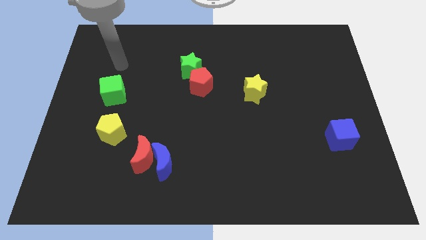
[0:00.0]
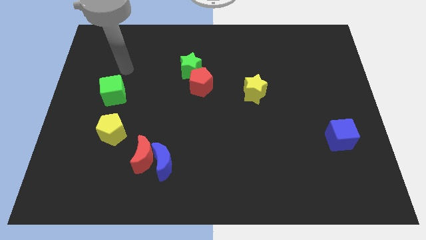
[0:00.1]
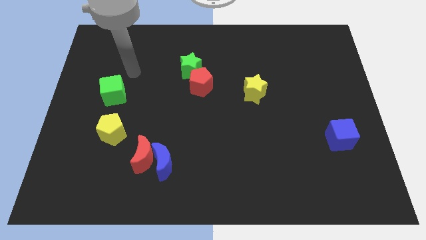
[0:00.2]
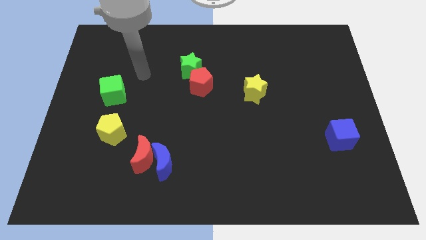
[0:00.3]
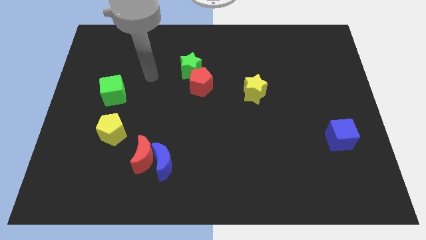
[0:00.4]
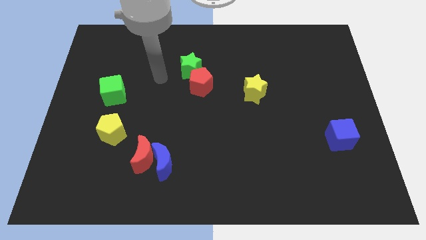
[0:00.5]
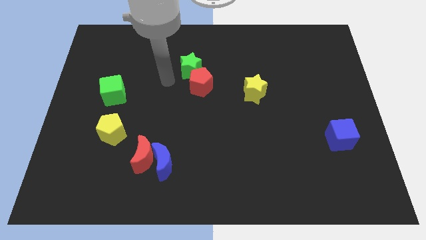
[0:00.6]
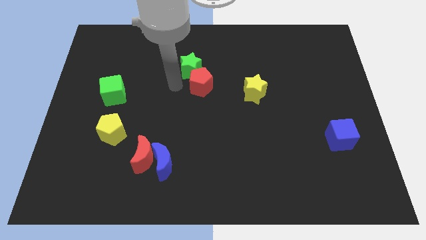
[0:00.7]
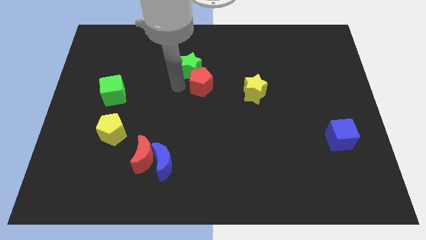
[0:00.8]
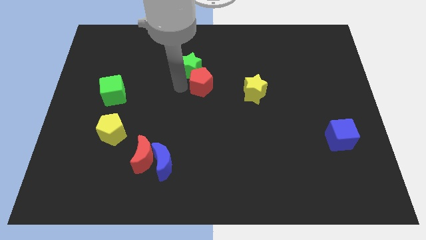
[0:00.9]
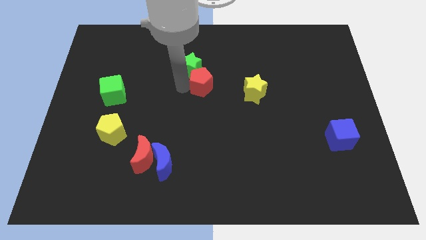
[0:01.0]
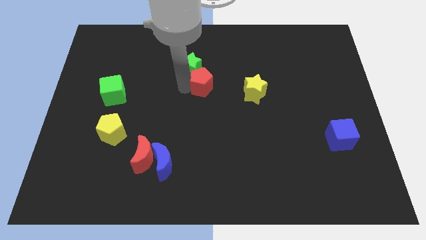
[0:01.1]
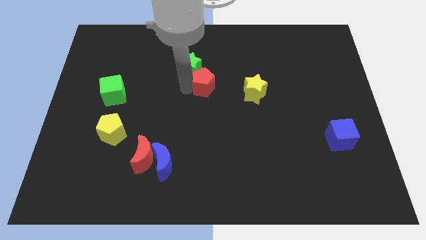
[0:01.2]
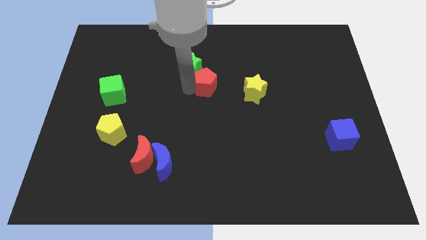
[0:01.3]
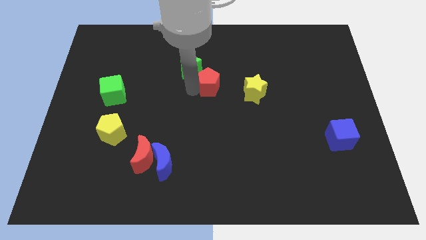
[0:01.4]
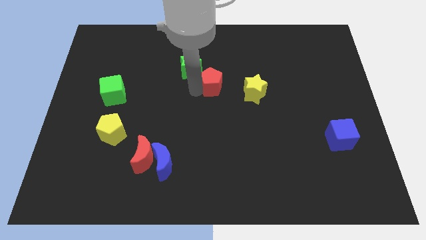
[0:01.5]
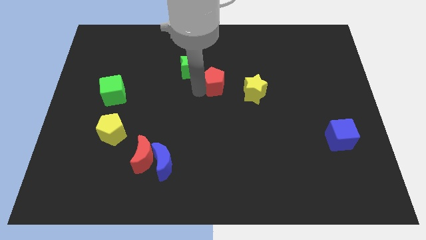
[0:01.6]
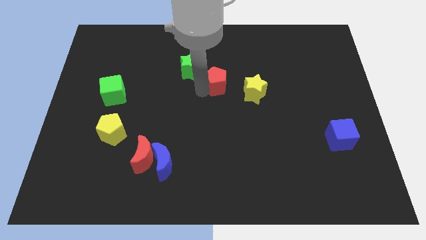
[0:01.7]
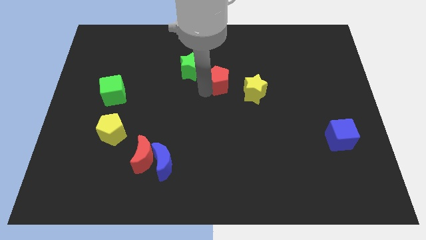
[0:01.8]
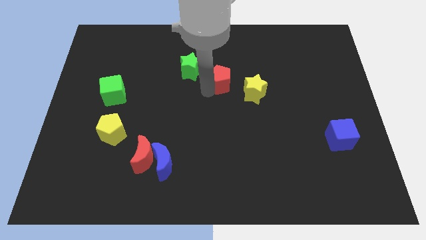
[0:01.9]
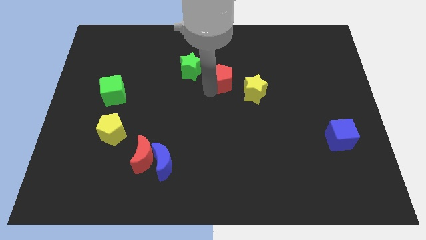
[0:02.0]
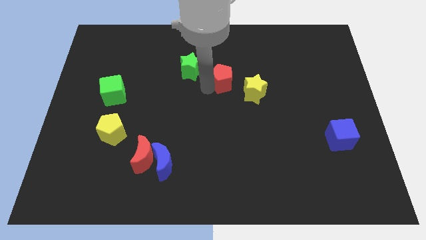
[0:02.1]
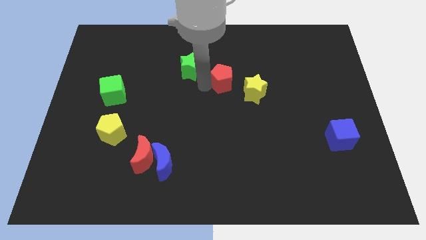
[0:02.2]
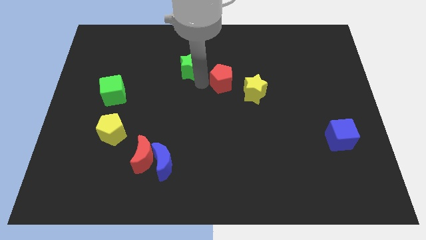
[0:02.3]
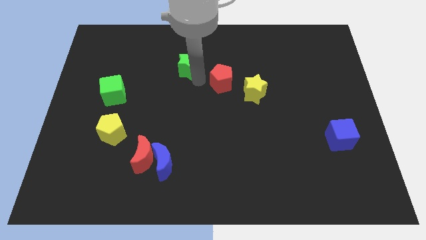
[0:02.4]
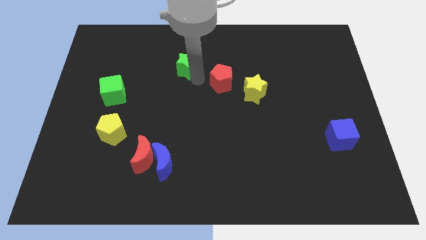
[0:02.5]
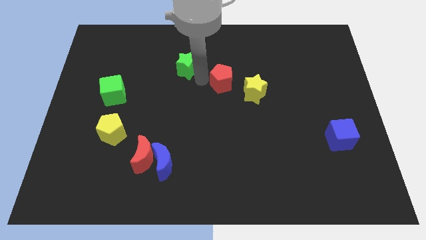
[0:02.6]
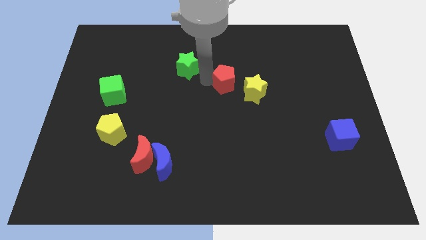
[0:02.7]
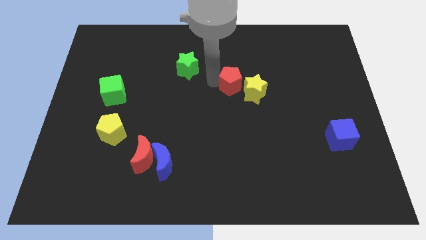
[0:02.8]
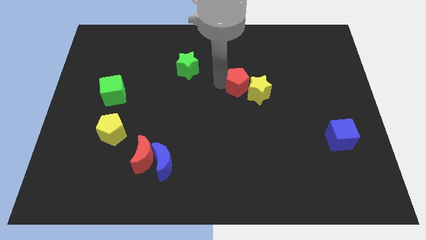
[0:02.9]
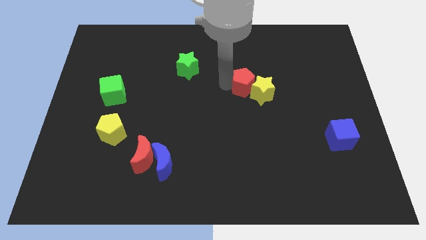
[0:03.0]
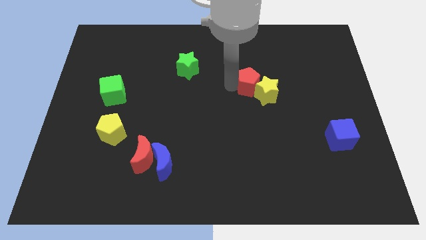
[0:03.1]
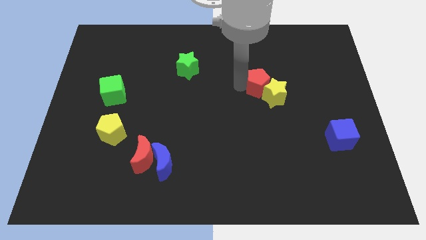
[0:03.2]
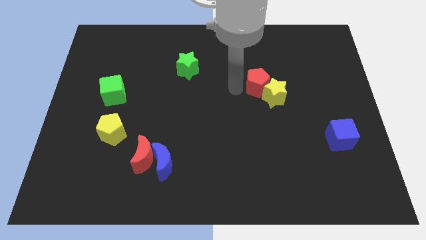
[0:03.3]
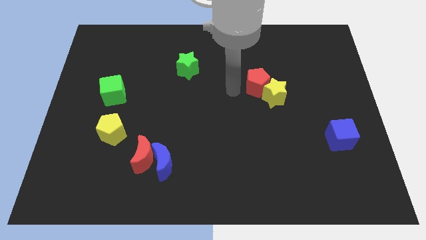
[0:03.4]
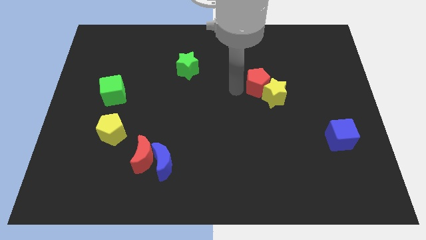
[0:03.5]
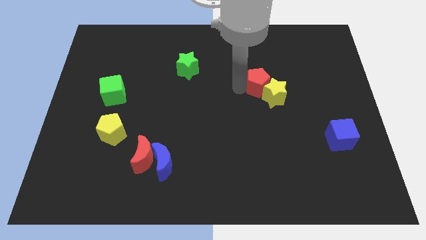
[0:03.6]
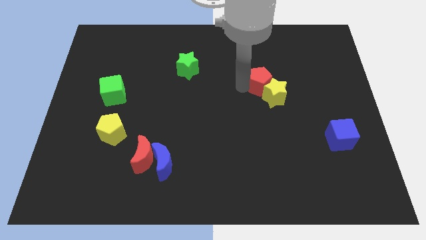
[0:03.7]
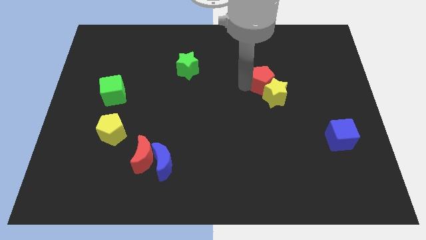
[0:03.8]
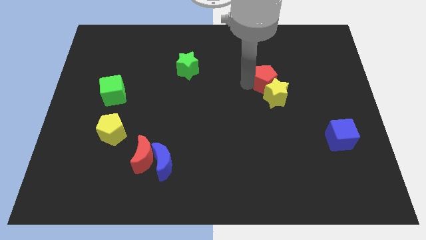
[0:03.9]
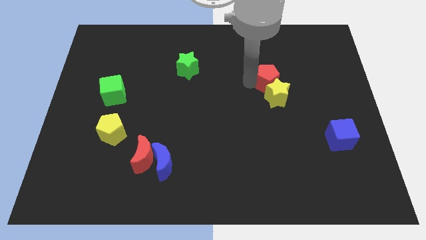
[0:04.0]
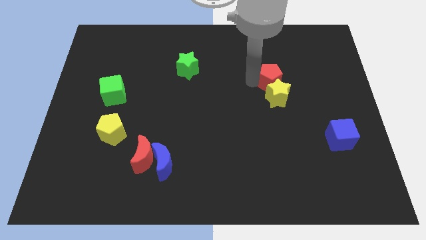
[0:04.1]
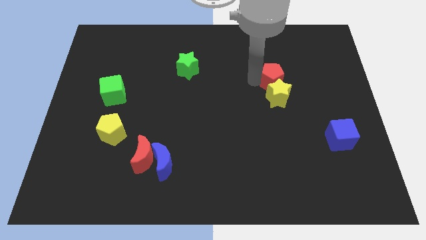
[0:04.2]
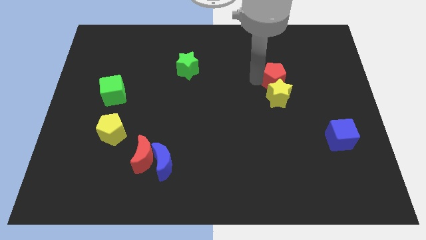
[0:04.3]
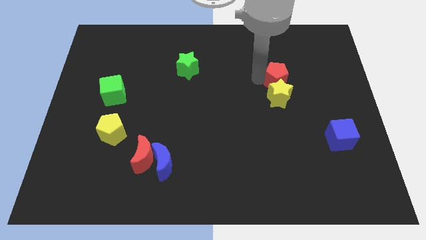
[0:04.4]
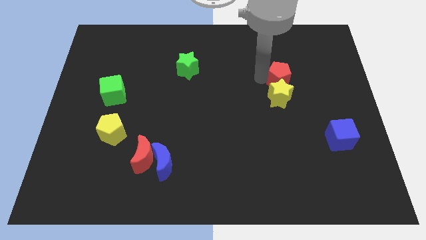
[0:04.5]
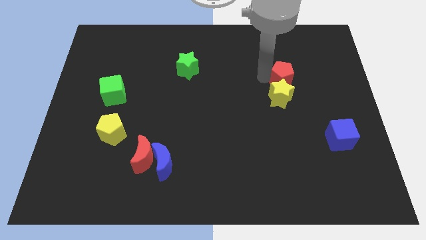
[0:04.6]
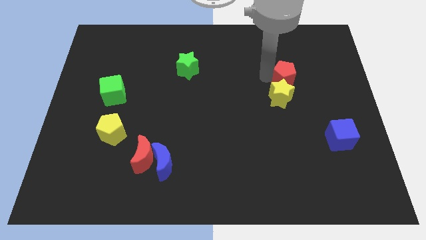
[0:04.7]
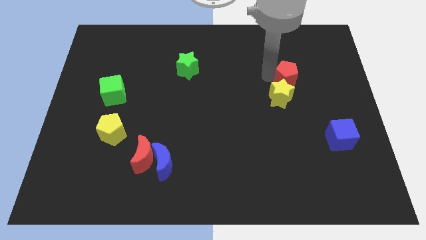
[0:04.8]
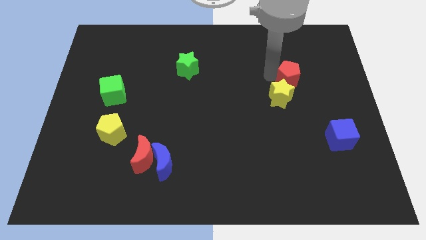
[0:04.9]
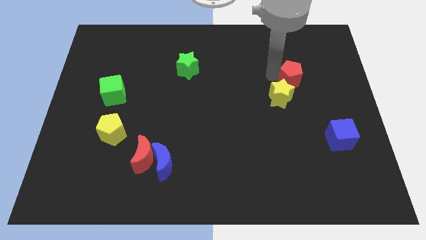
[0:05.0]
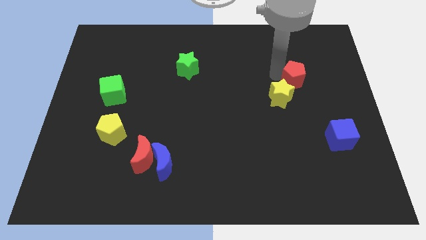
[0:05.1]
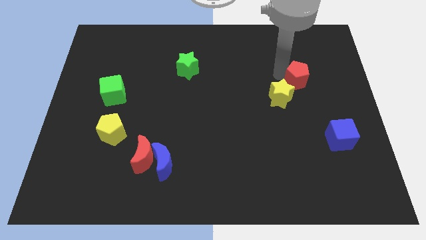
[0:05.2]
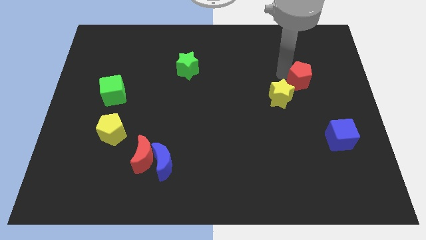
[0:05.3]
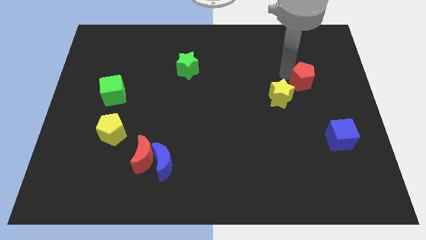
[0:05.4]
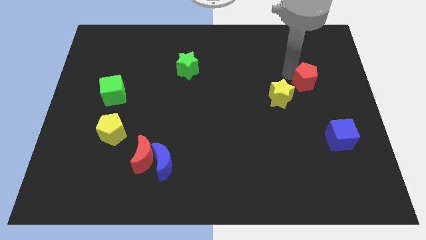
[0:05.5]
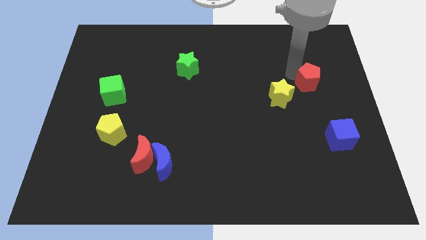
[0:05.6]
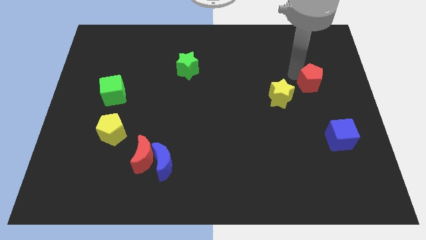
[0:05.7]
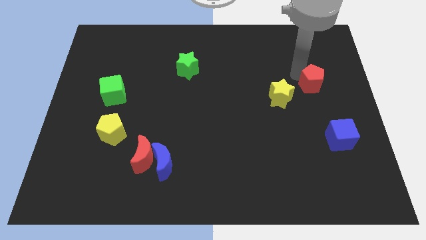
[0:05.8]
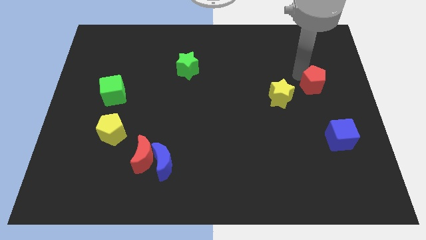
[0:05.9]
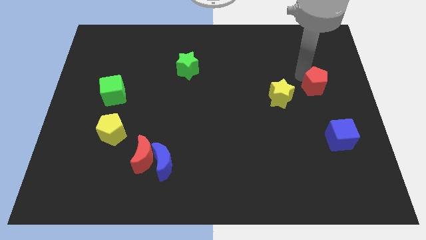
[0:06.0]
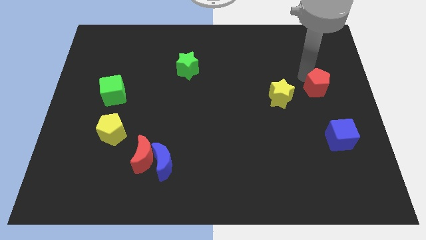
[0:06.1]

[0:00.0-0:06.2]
move the red pentagon to the center right

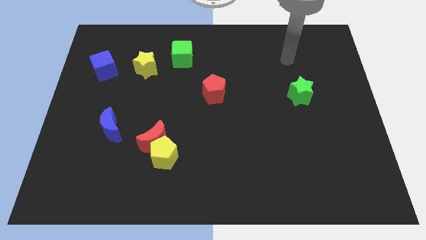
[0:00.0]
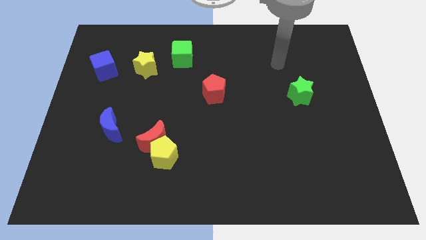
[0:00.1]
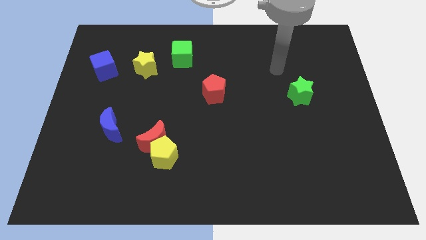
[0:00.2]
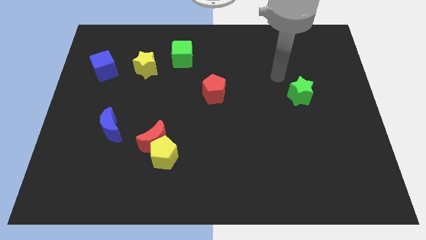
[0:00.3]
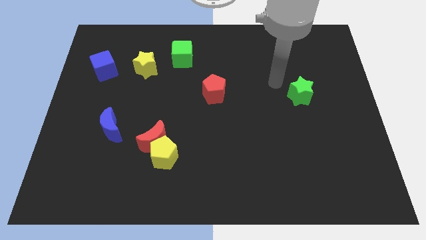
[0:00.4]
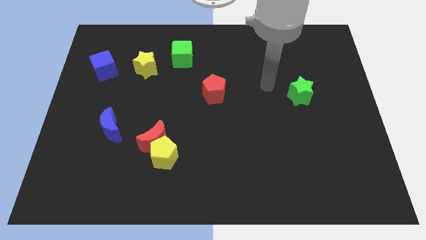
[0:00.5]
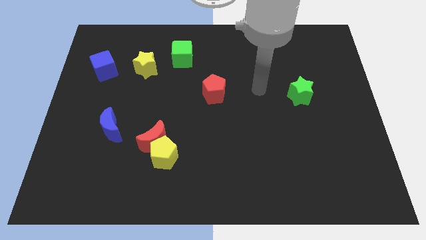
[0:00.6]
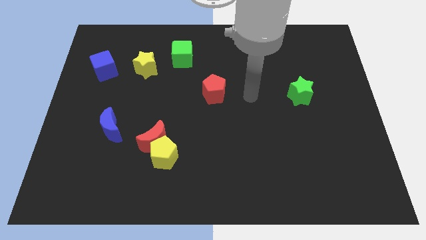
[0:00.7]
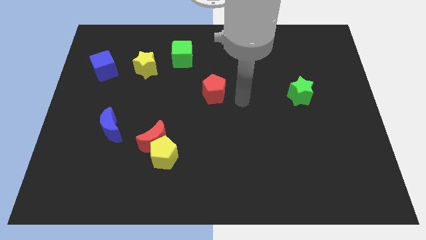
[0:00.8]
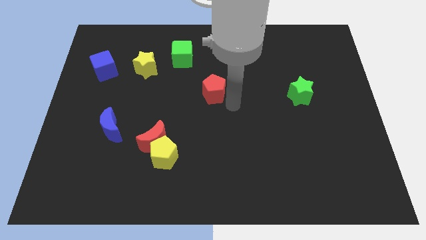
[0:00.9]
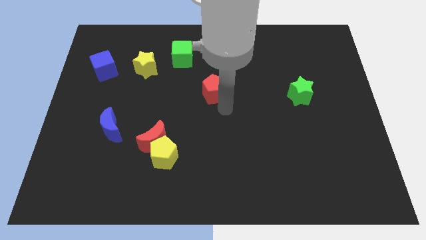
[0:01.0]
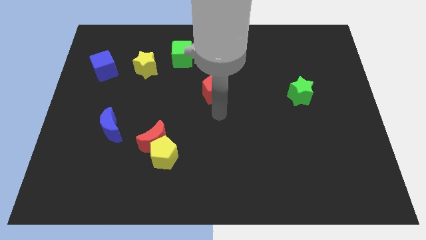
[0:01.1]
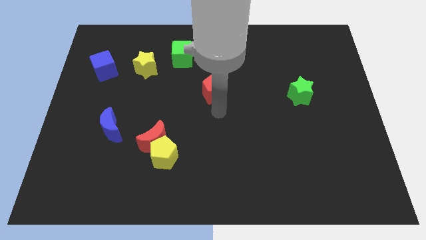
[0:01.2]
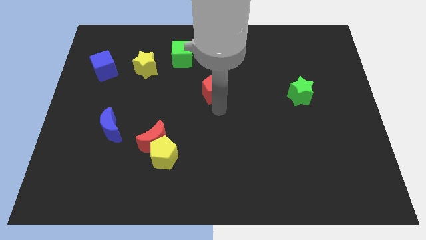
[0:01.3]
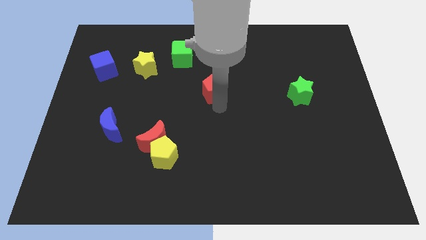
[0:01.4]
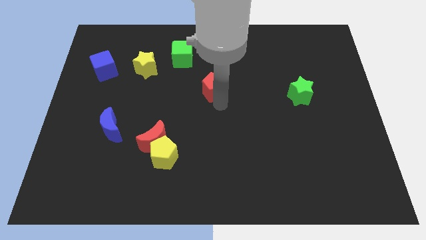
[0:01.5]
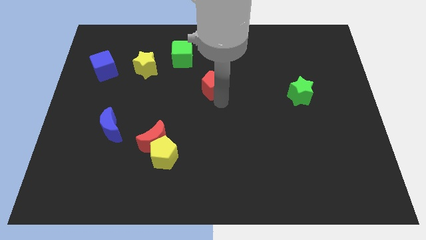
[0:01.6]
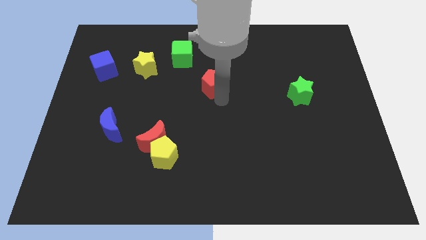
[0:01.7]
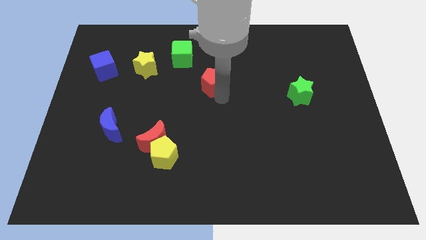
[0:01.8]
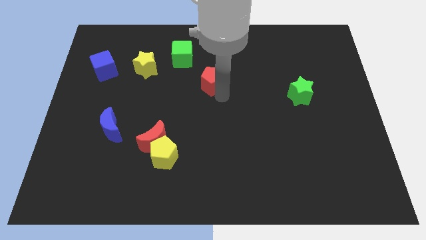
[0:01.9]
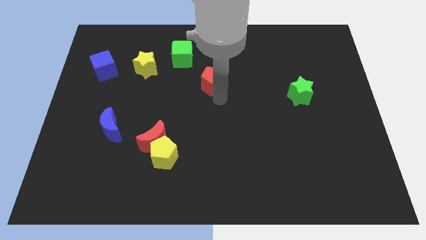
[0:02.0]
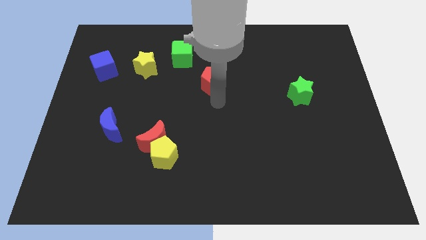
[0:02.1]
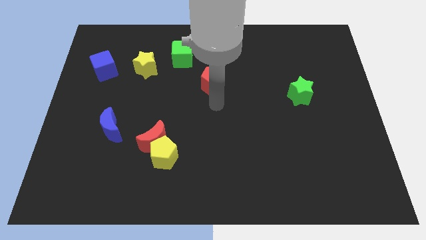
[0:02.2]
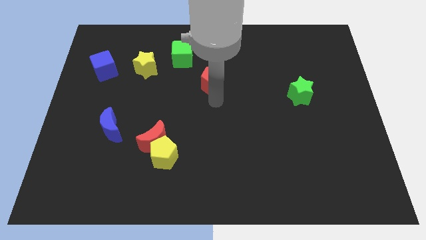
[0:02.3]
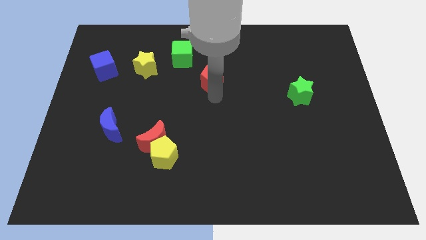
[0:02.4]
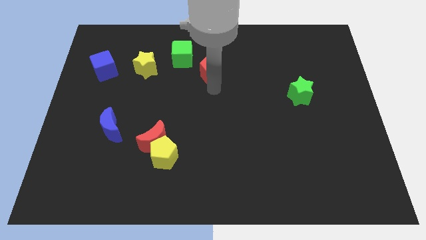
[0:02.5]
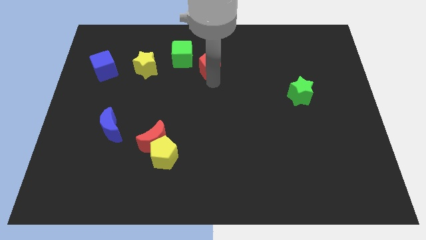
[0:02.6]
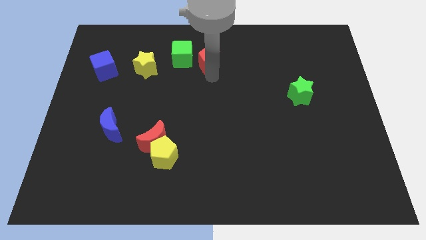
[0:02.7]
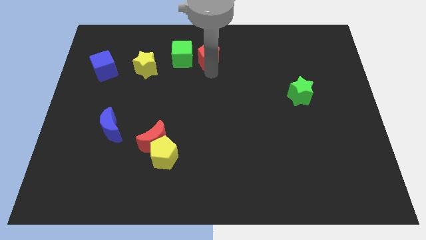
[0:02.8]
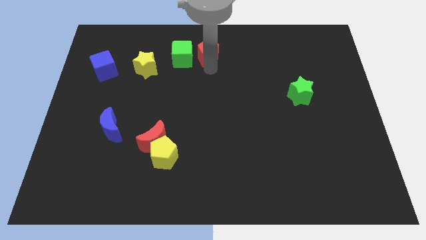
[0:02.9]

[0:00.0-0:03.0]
slide the red pentagon to the top side
